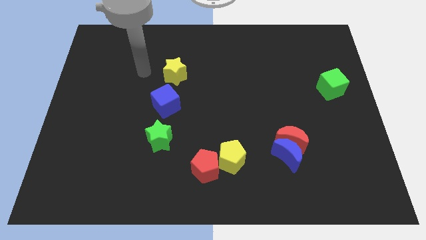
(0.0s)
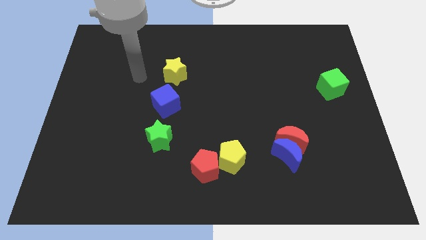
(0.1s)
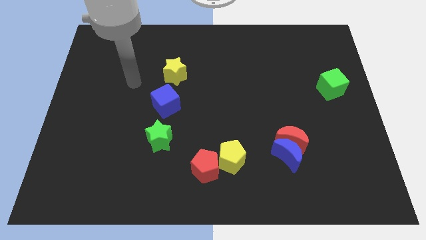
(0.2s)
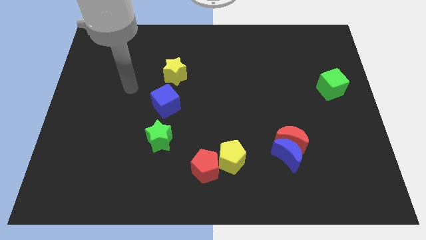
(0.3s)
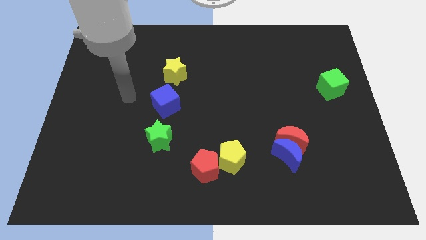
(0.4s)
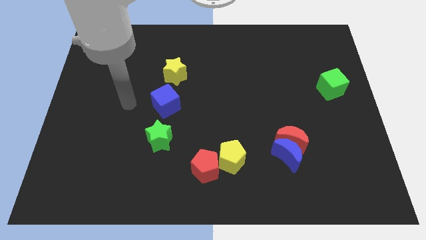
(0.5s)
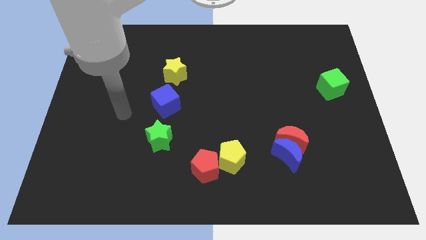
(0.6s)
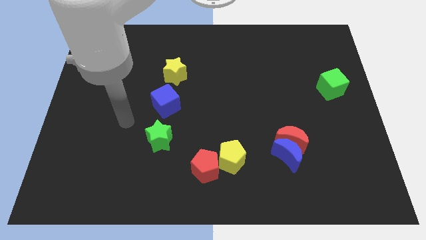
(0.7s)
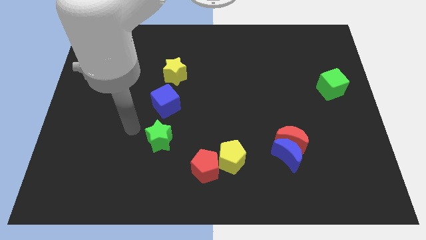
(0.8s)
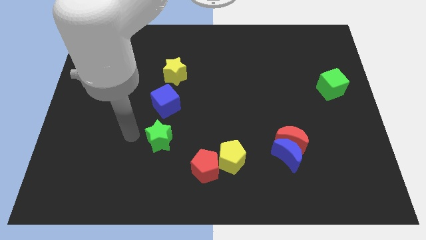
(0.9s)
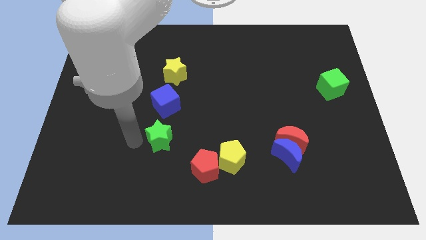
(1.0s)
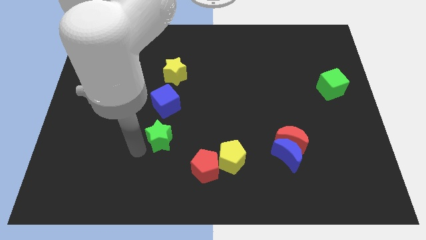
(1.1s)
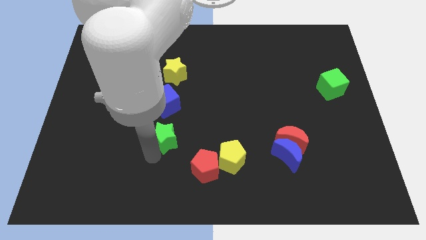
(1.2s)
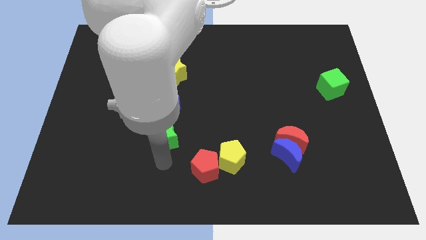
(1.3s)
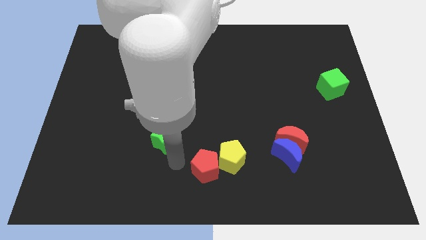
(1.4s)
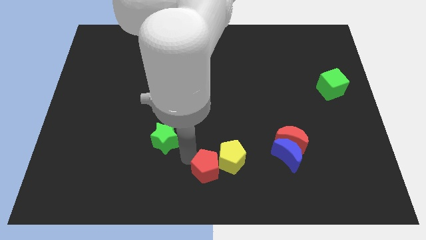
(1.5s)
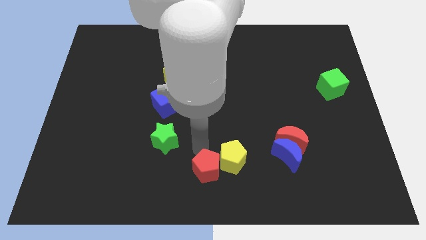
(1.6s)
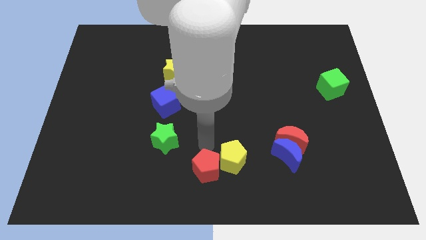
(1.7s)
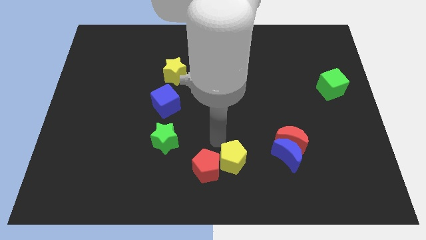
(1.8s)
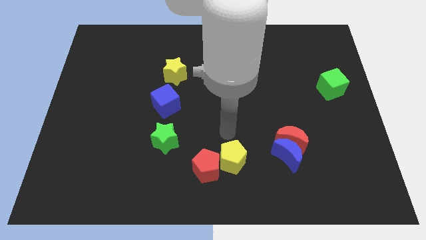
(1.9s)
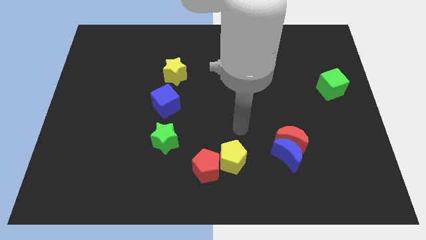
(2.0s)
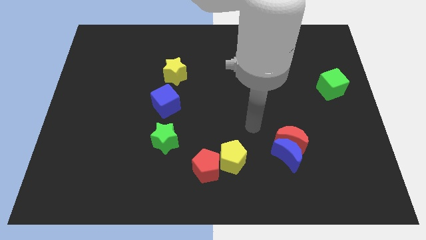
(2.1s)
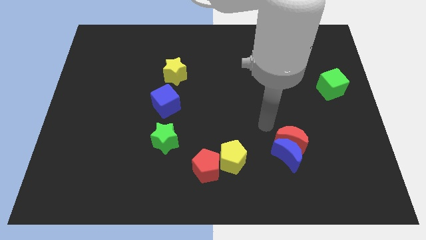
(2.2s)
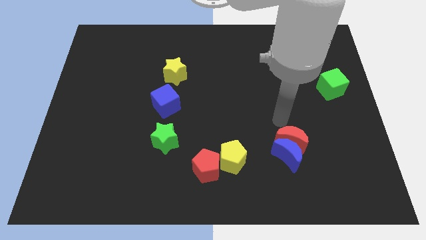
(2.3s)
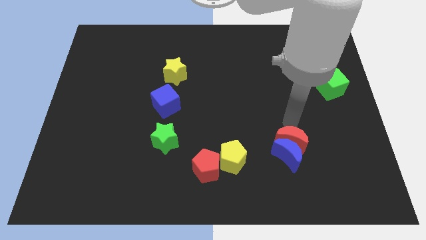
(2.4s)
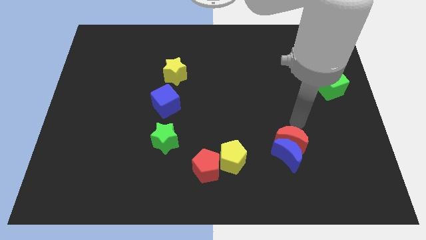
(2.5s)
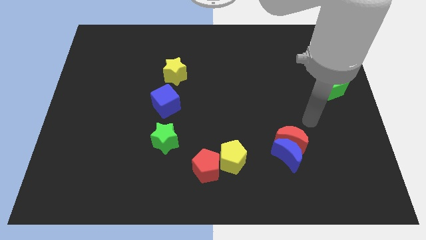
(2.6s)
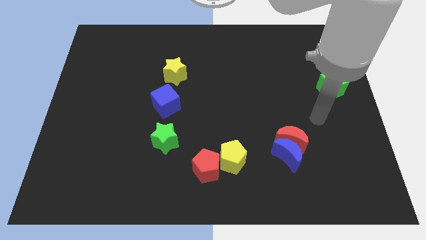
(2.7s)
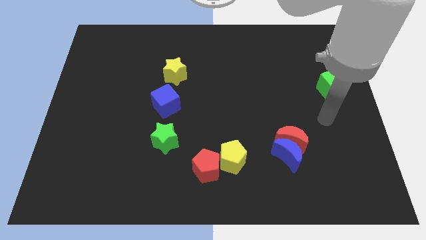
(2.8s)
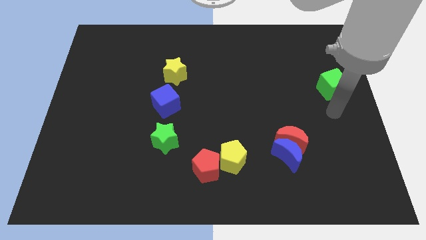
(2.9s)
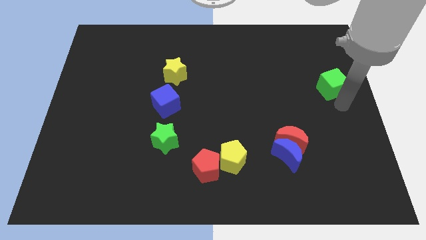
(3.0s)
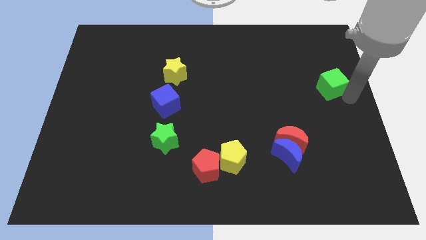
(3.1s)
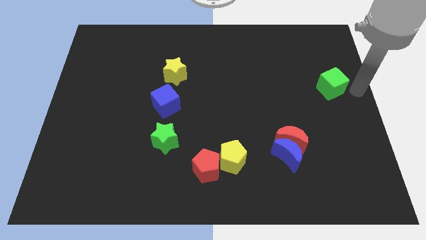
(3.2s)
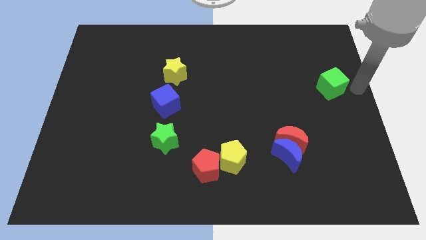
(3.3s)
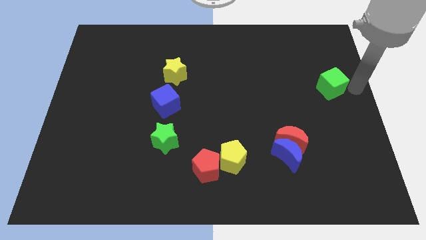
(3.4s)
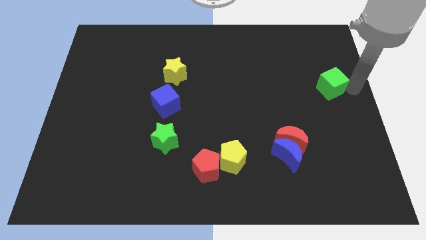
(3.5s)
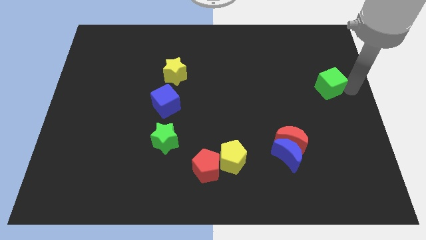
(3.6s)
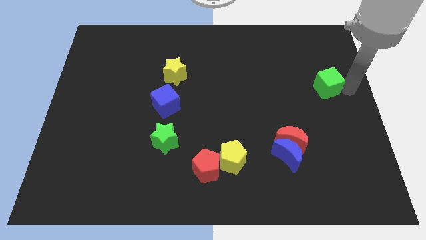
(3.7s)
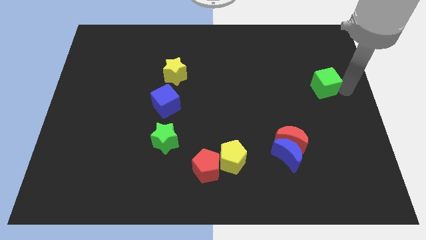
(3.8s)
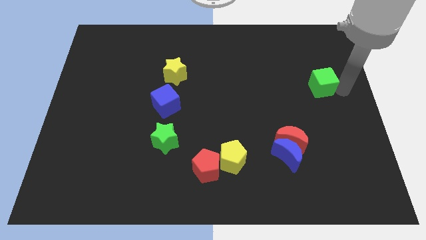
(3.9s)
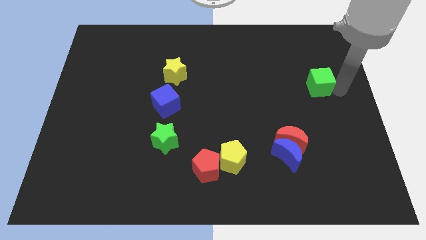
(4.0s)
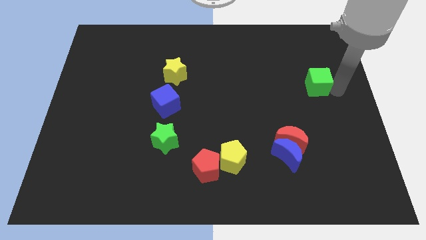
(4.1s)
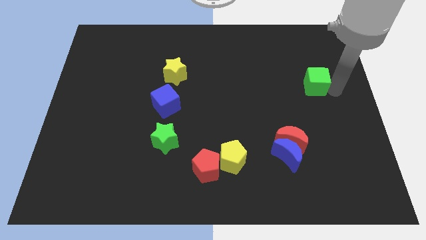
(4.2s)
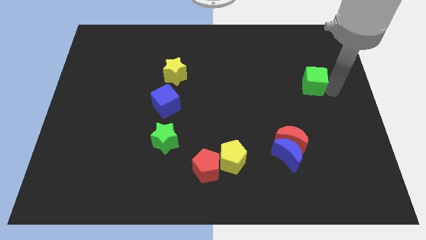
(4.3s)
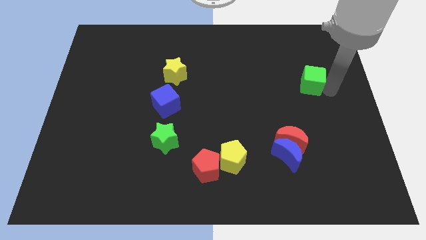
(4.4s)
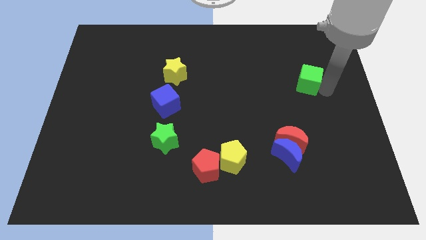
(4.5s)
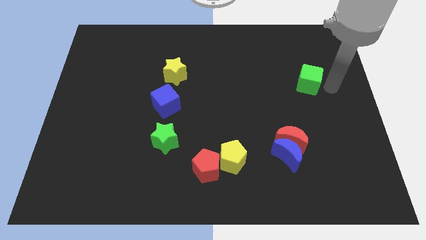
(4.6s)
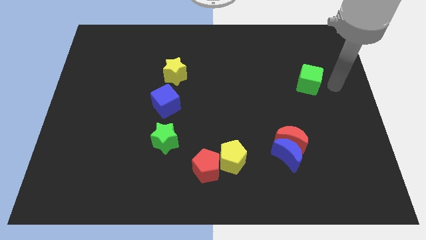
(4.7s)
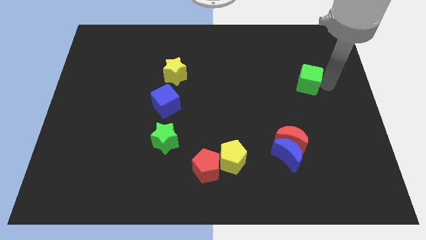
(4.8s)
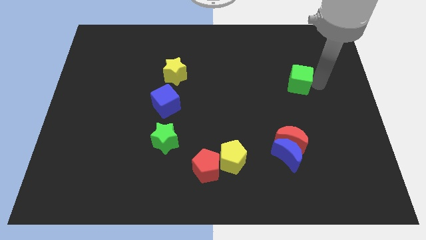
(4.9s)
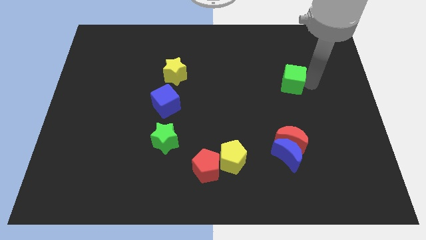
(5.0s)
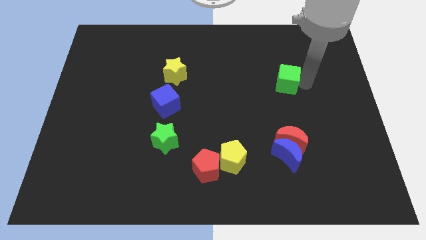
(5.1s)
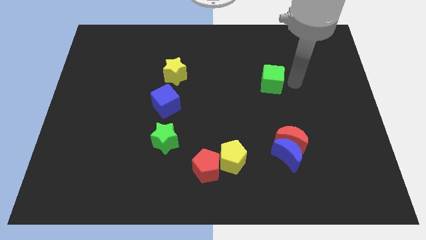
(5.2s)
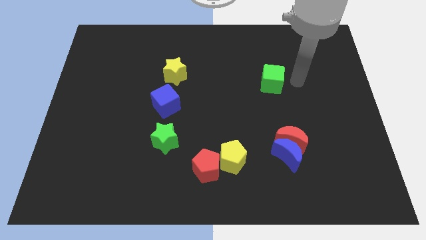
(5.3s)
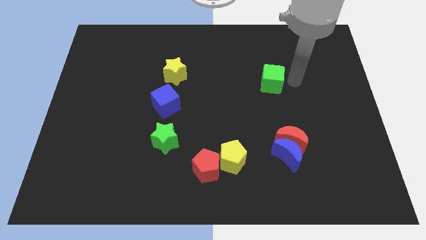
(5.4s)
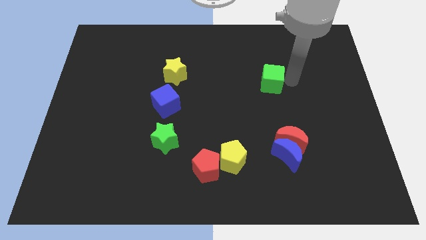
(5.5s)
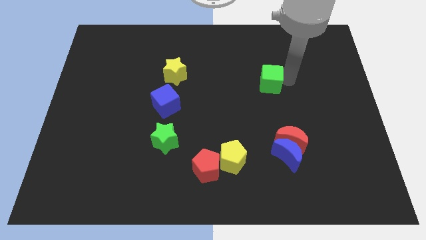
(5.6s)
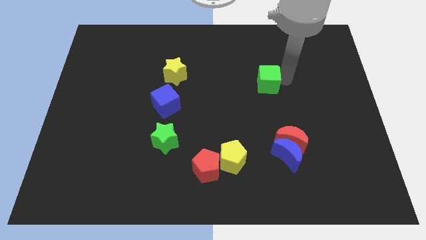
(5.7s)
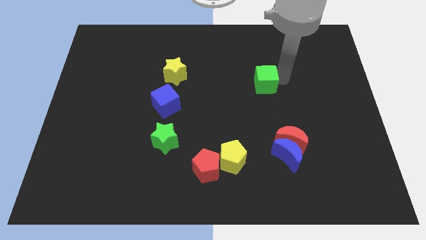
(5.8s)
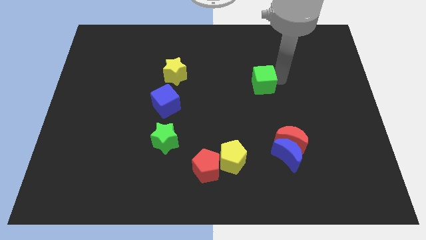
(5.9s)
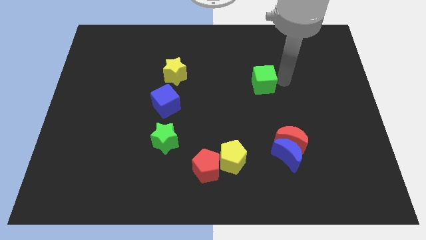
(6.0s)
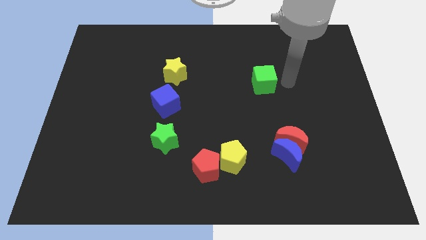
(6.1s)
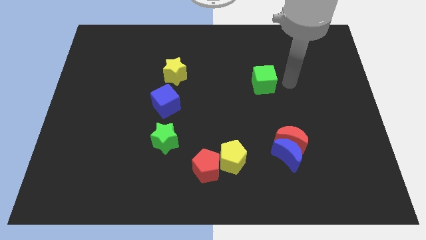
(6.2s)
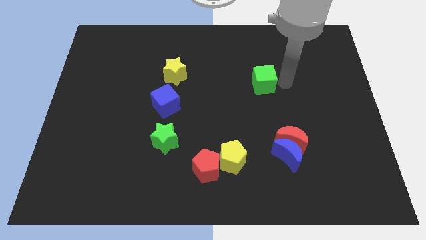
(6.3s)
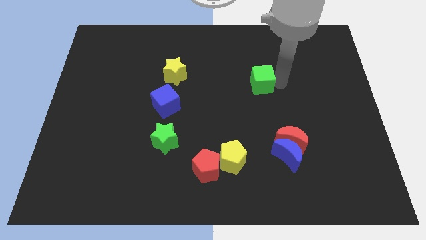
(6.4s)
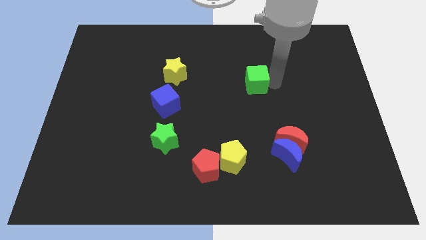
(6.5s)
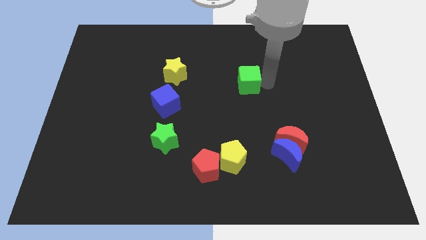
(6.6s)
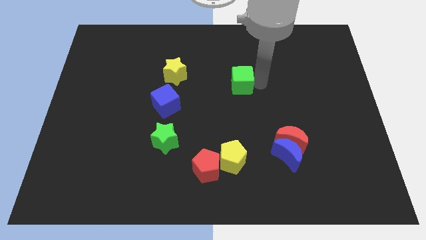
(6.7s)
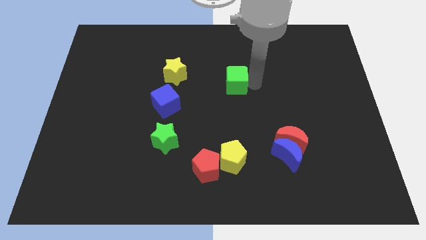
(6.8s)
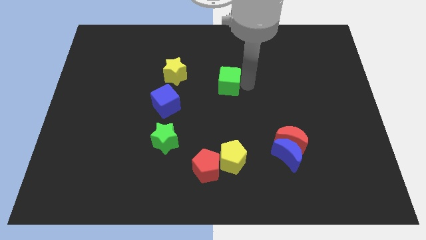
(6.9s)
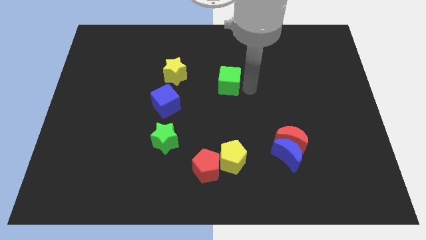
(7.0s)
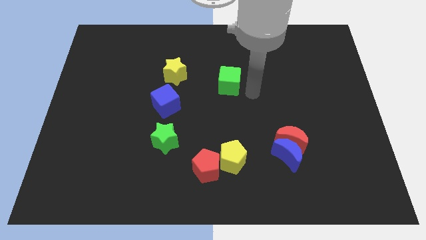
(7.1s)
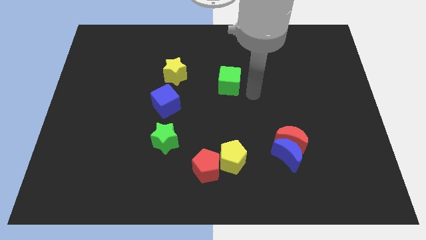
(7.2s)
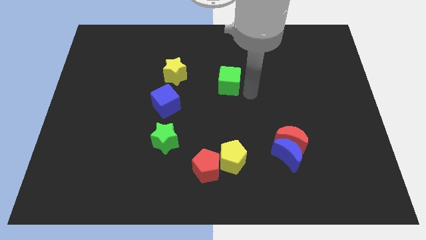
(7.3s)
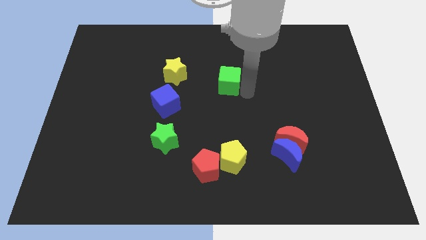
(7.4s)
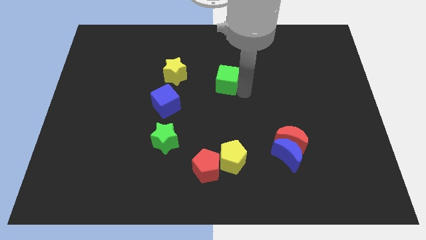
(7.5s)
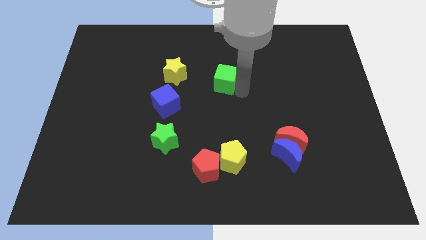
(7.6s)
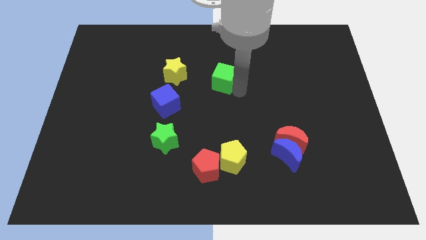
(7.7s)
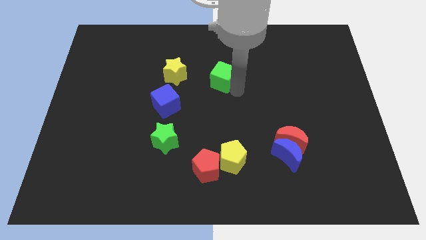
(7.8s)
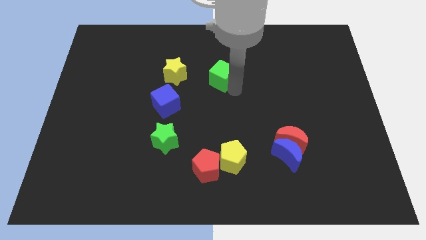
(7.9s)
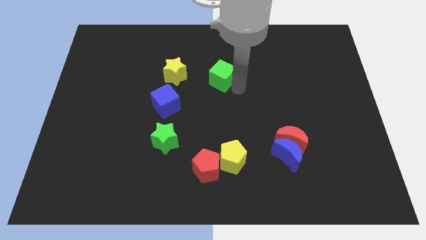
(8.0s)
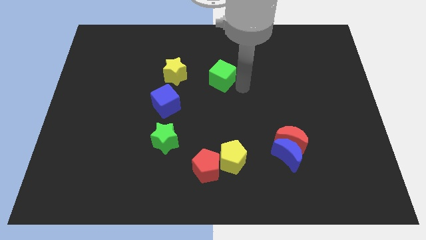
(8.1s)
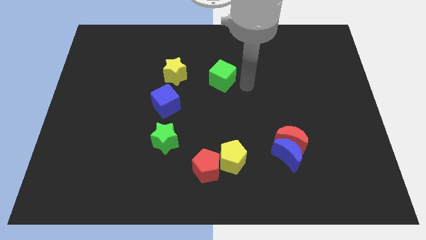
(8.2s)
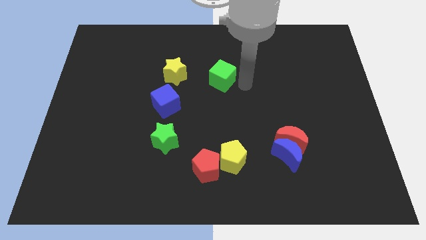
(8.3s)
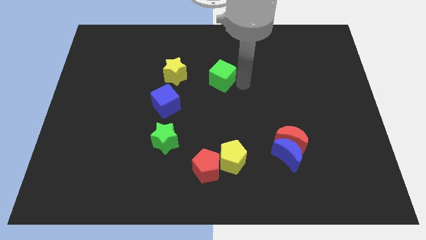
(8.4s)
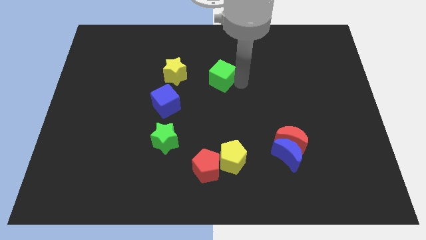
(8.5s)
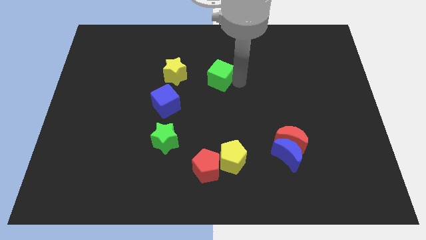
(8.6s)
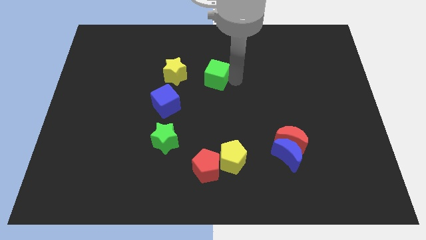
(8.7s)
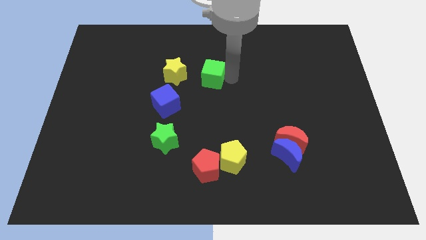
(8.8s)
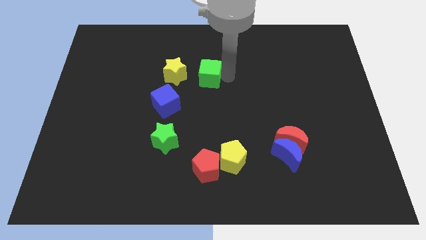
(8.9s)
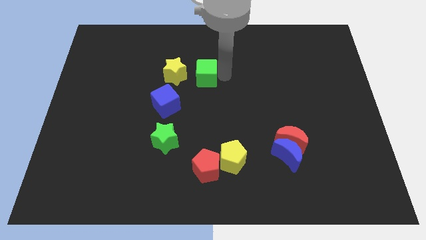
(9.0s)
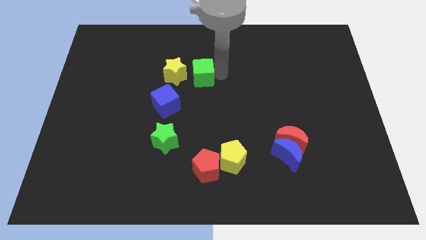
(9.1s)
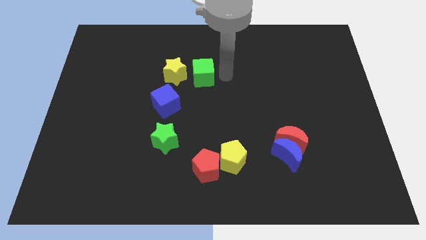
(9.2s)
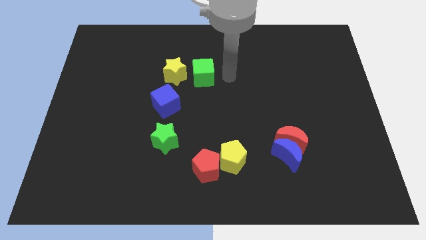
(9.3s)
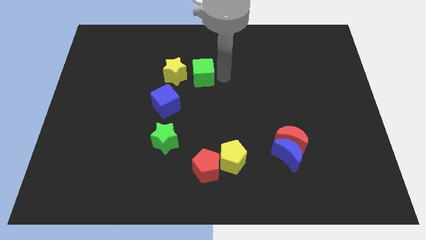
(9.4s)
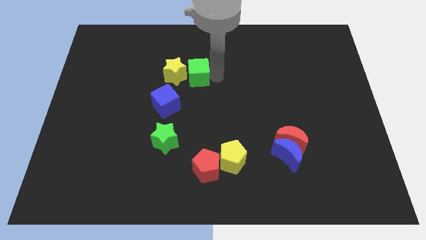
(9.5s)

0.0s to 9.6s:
move the green cube towards the yellow star
